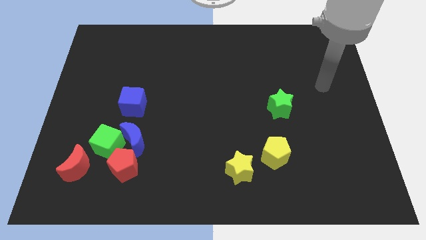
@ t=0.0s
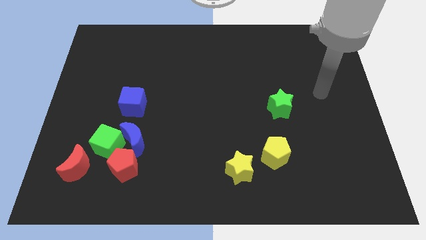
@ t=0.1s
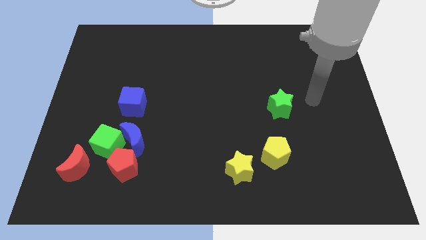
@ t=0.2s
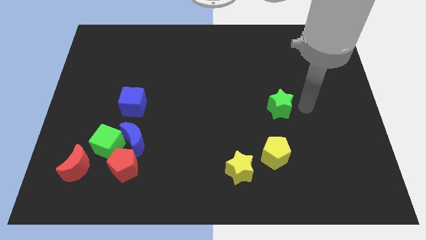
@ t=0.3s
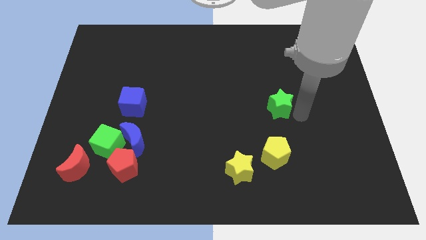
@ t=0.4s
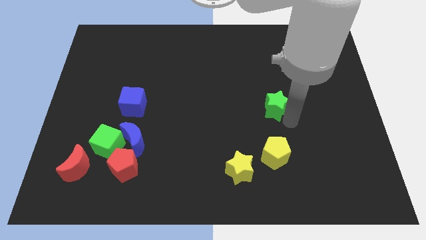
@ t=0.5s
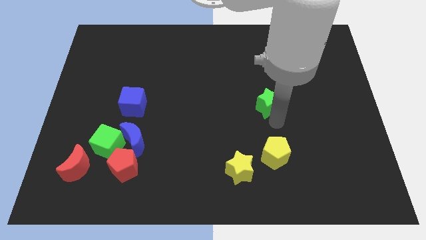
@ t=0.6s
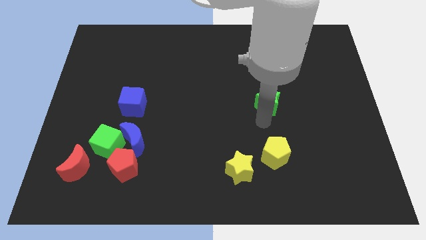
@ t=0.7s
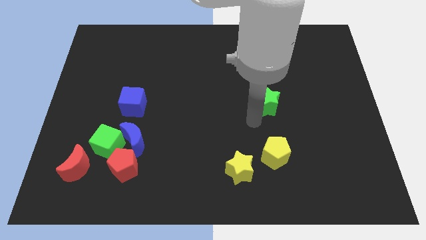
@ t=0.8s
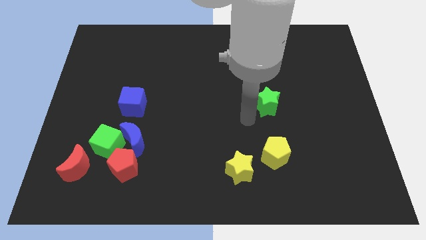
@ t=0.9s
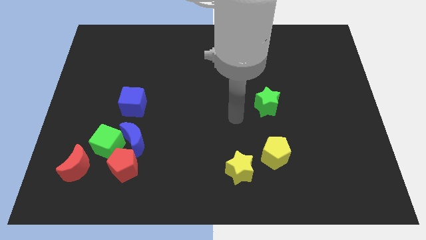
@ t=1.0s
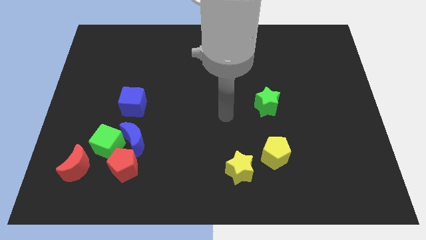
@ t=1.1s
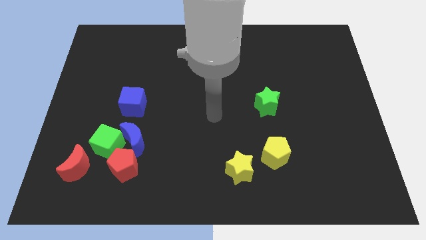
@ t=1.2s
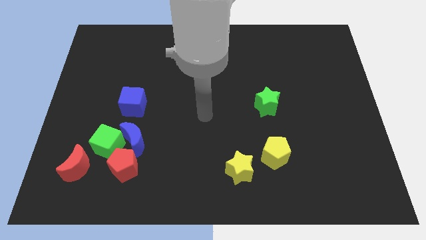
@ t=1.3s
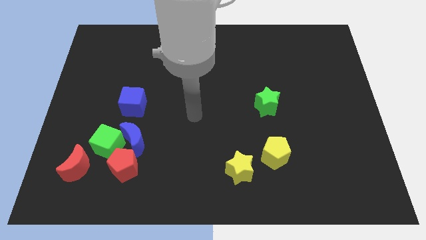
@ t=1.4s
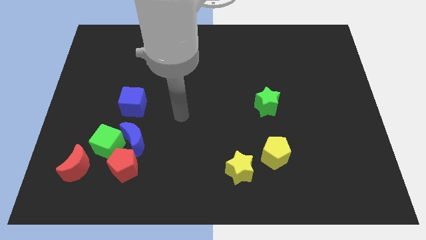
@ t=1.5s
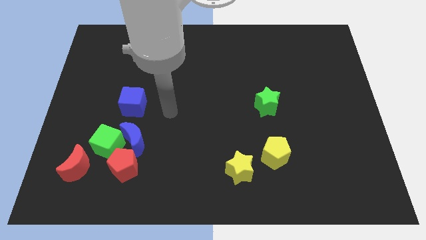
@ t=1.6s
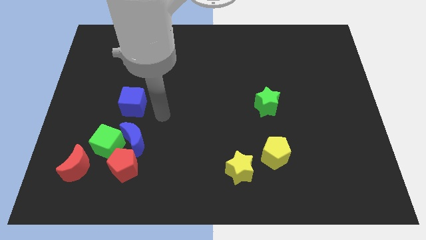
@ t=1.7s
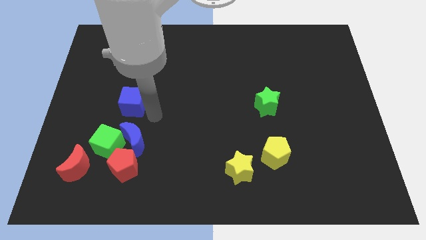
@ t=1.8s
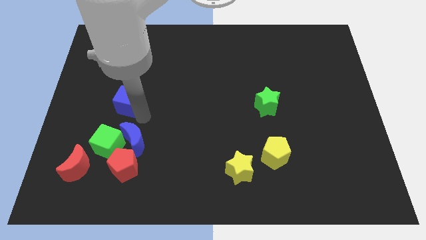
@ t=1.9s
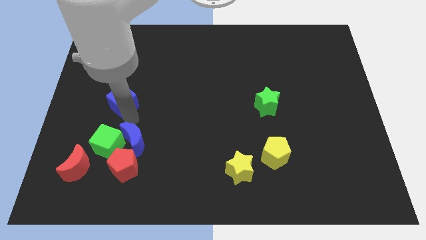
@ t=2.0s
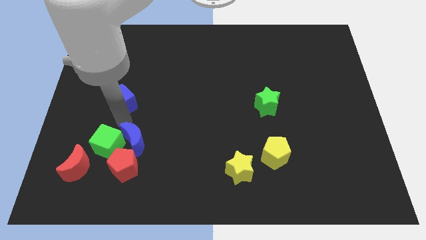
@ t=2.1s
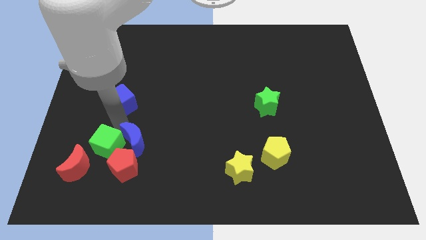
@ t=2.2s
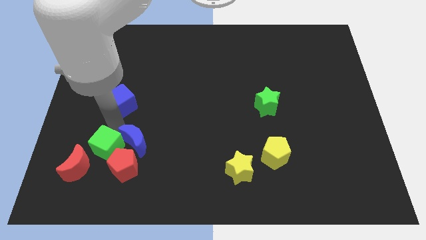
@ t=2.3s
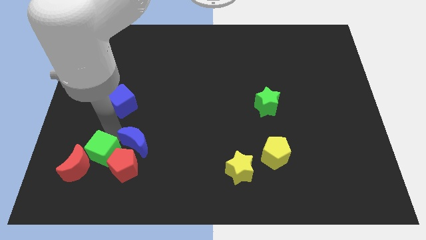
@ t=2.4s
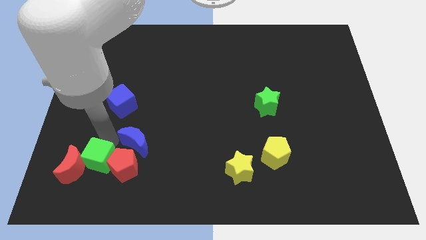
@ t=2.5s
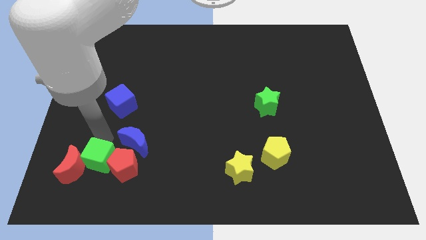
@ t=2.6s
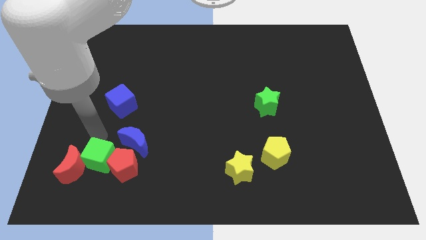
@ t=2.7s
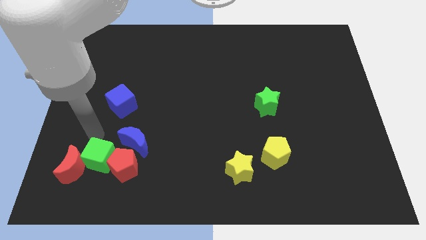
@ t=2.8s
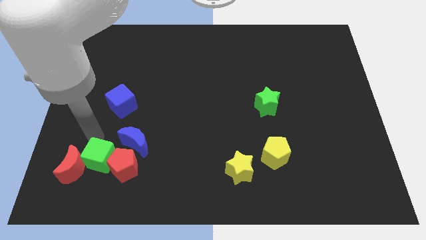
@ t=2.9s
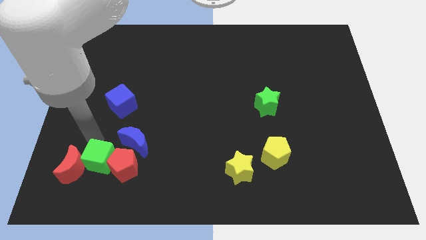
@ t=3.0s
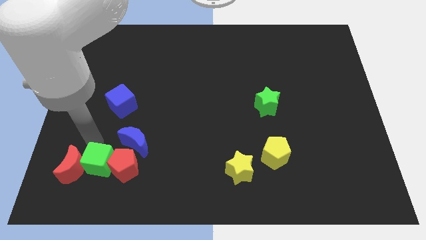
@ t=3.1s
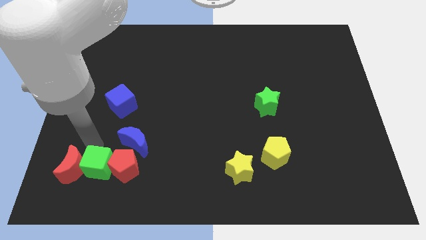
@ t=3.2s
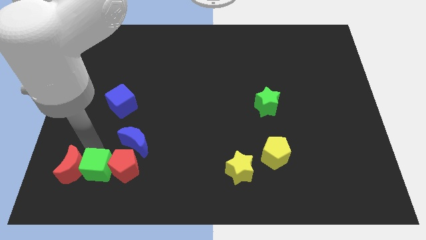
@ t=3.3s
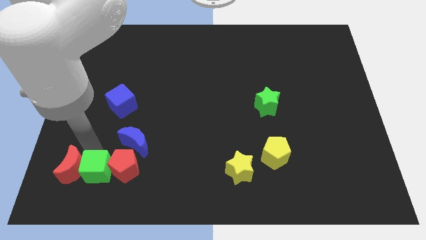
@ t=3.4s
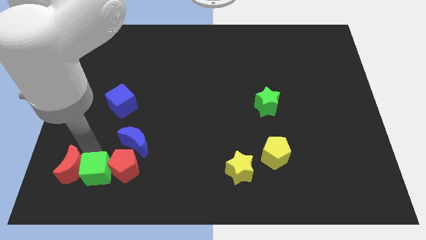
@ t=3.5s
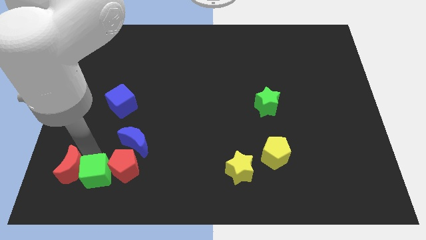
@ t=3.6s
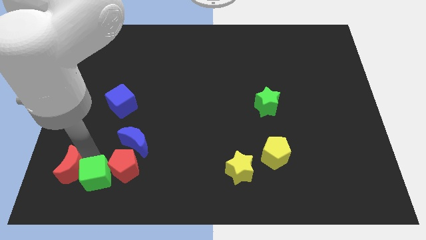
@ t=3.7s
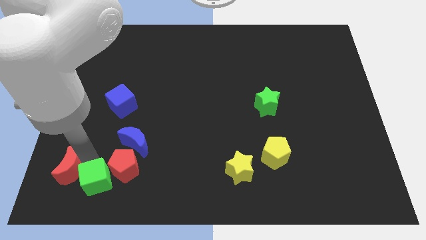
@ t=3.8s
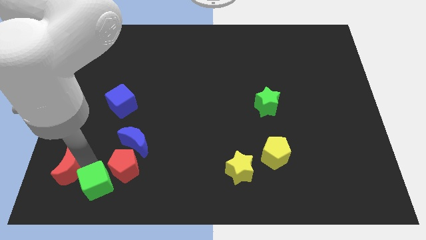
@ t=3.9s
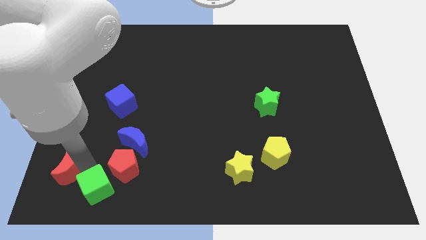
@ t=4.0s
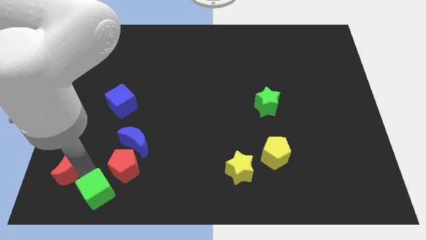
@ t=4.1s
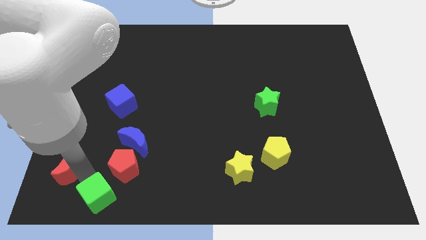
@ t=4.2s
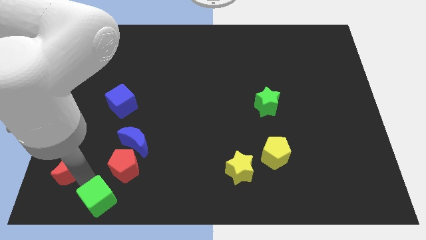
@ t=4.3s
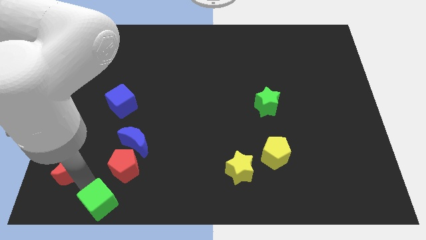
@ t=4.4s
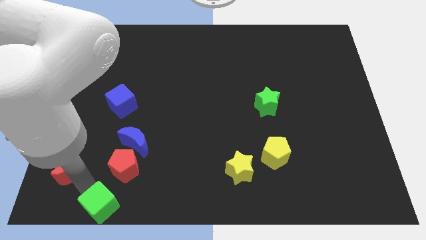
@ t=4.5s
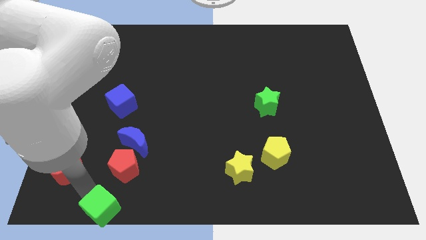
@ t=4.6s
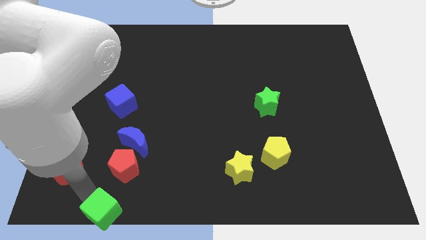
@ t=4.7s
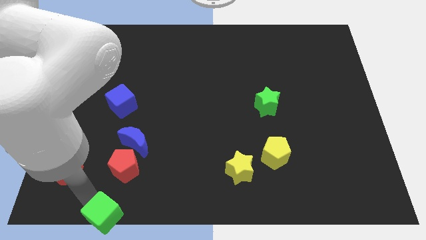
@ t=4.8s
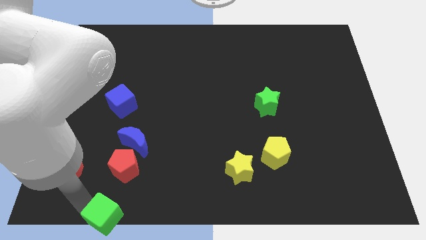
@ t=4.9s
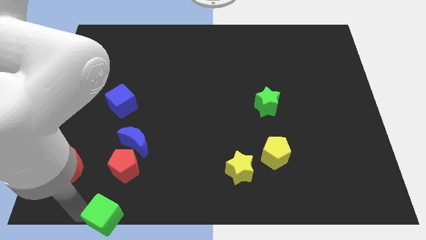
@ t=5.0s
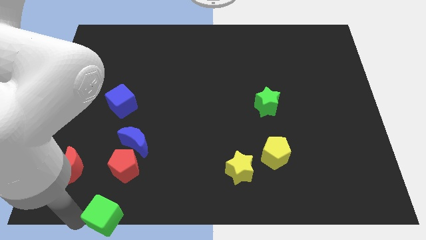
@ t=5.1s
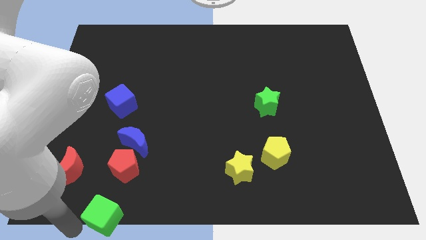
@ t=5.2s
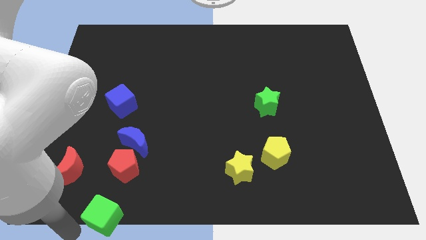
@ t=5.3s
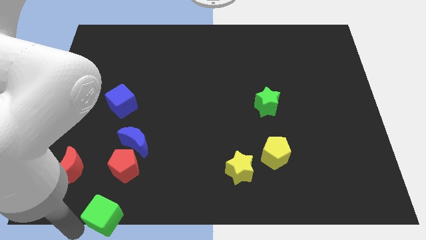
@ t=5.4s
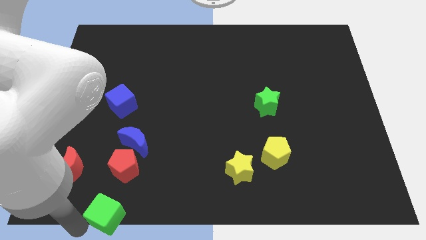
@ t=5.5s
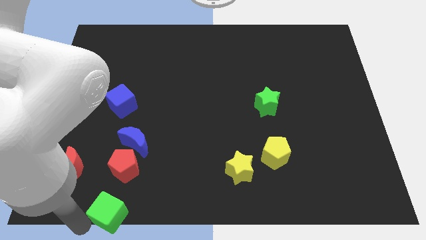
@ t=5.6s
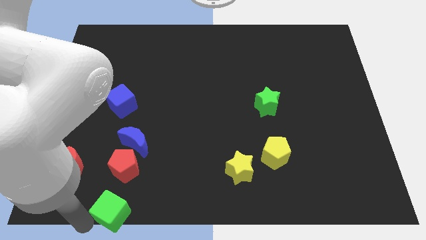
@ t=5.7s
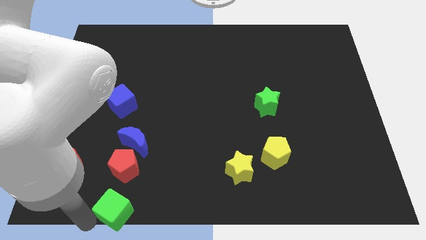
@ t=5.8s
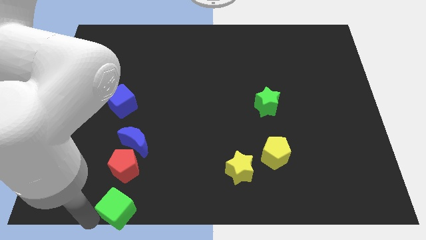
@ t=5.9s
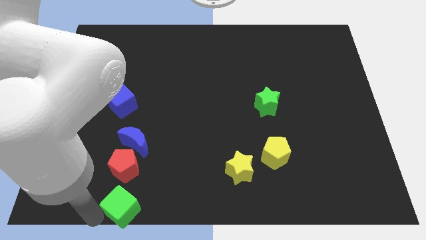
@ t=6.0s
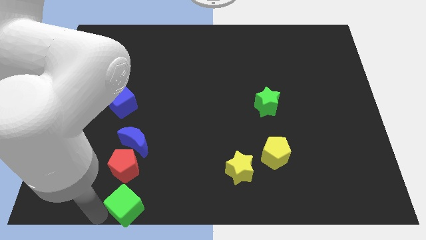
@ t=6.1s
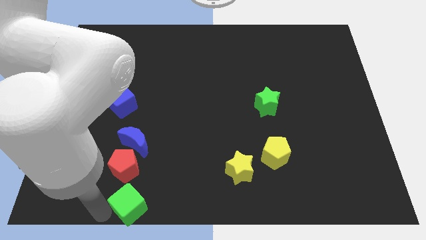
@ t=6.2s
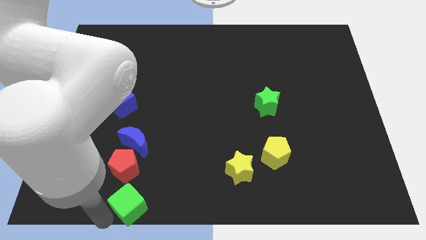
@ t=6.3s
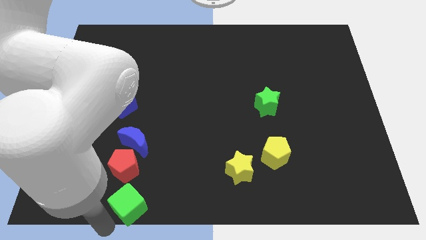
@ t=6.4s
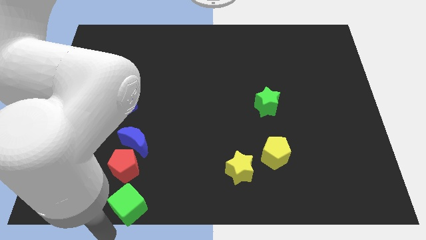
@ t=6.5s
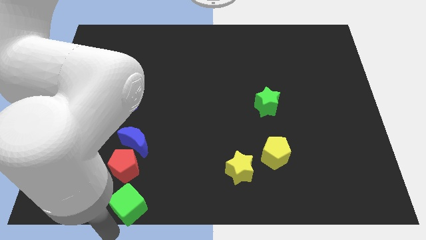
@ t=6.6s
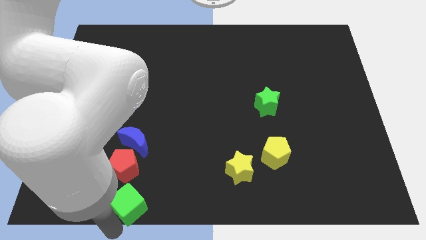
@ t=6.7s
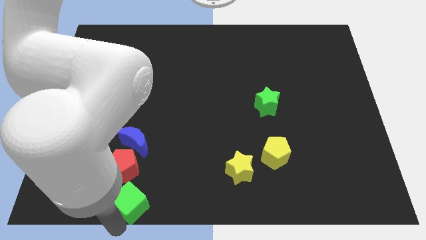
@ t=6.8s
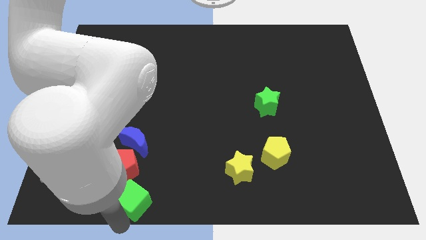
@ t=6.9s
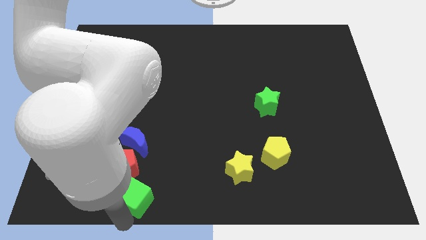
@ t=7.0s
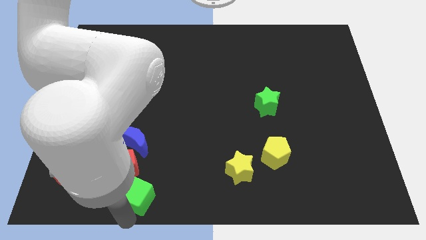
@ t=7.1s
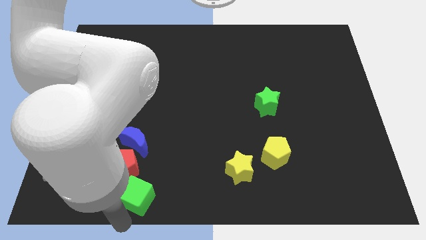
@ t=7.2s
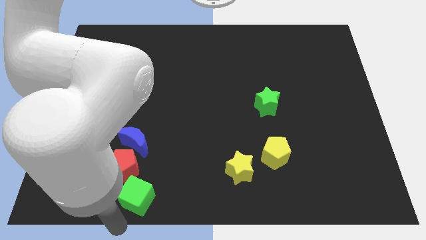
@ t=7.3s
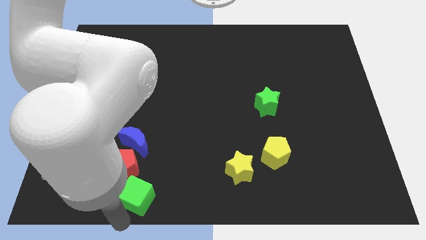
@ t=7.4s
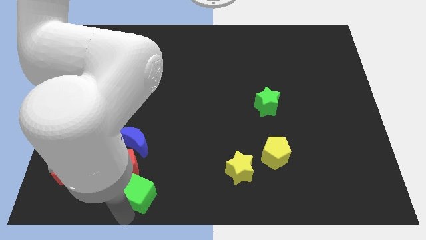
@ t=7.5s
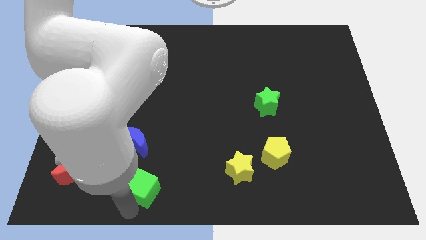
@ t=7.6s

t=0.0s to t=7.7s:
push the green cube to the right of the red pentagon
